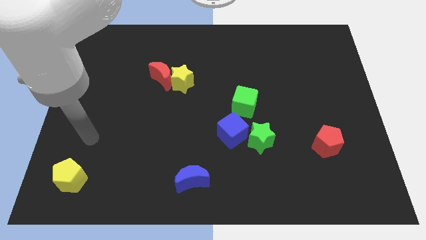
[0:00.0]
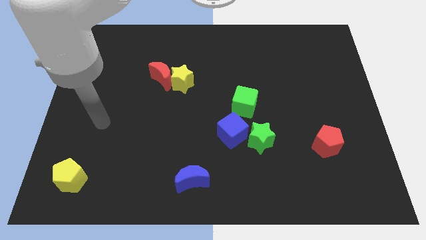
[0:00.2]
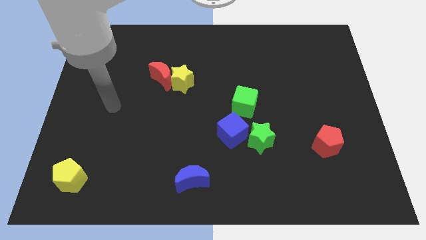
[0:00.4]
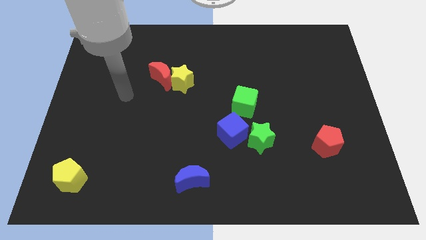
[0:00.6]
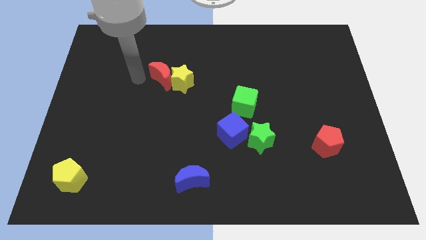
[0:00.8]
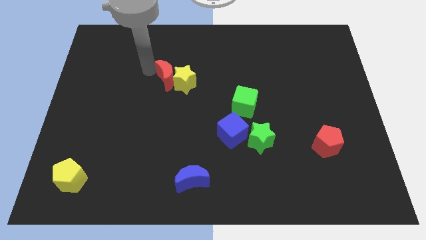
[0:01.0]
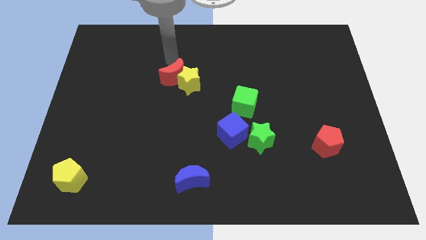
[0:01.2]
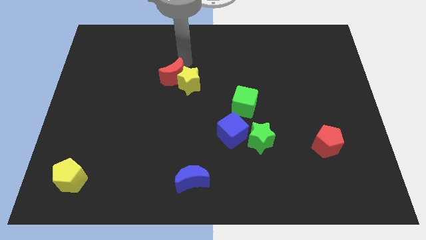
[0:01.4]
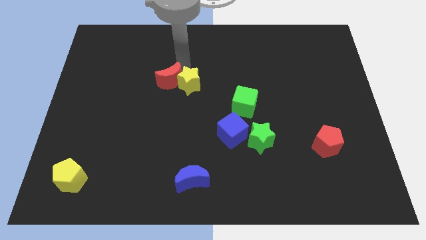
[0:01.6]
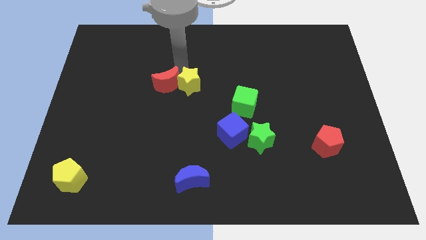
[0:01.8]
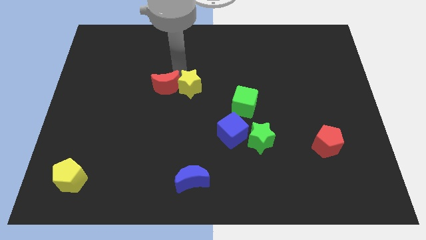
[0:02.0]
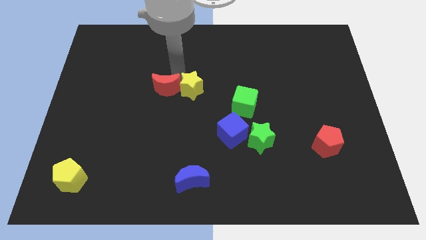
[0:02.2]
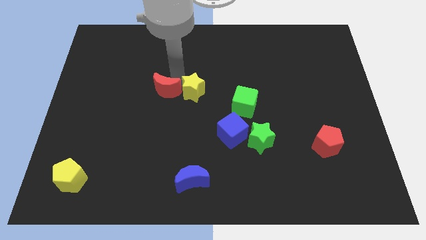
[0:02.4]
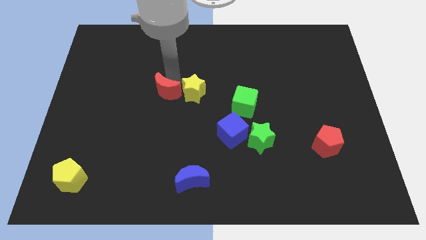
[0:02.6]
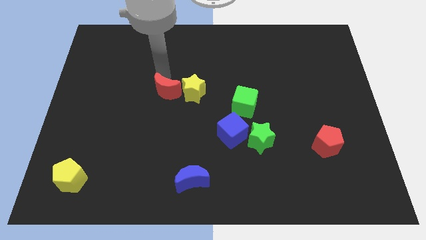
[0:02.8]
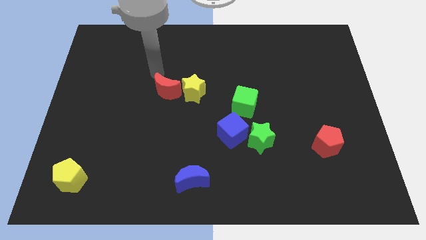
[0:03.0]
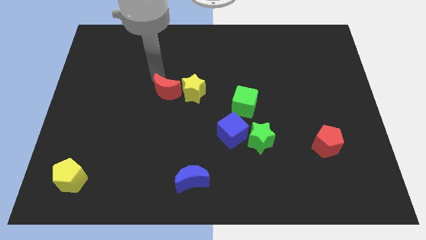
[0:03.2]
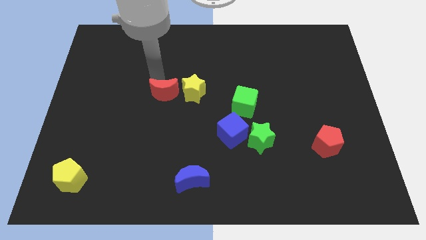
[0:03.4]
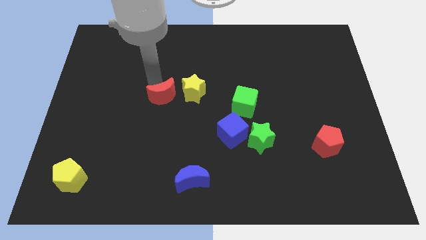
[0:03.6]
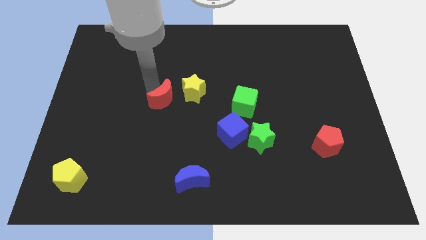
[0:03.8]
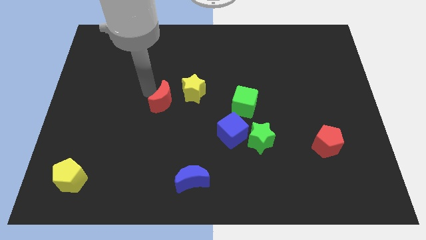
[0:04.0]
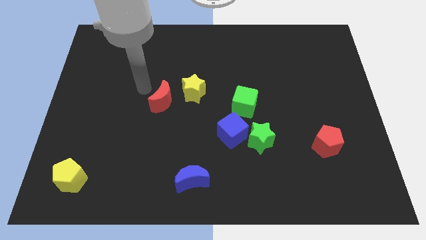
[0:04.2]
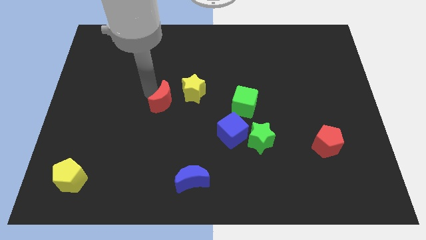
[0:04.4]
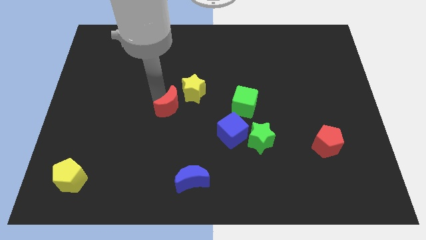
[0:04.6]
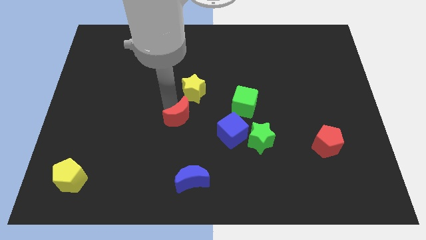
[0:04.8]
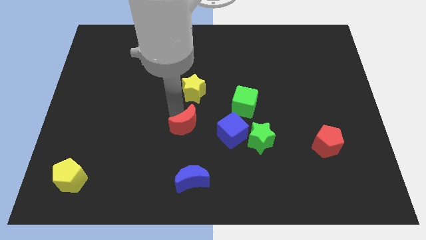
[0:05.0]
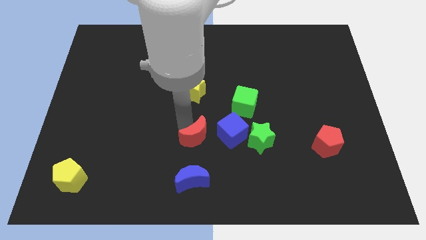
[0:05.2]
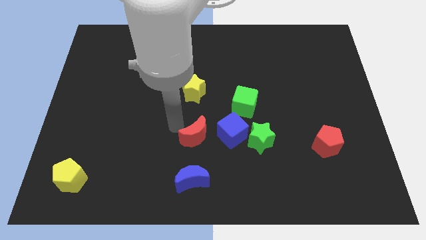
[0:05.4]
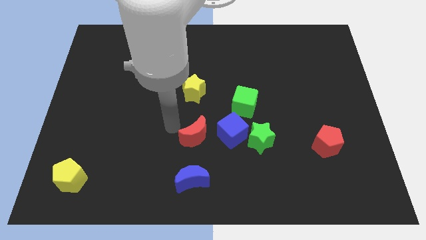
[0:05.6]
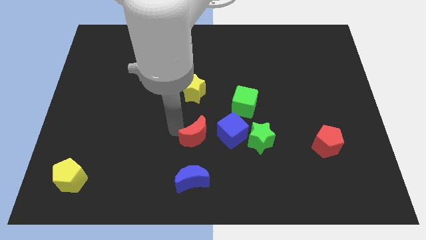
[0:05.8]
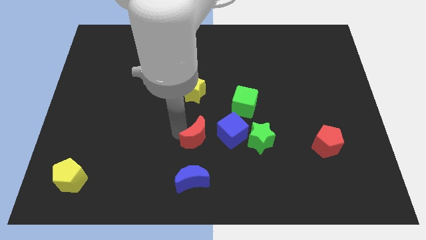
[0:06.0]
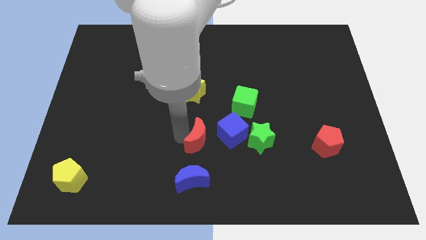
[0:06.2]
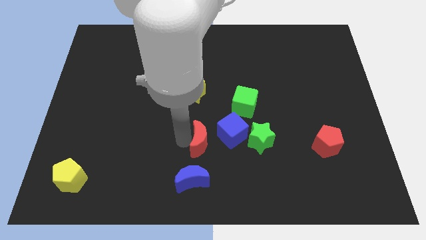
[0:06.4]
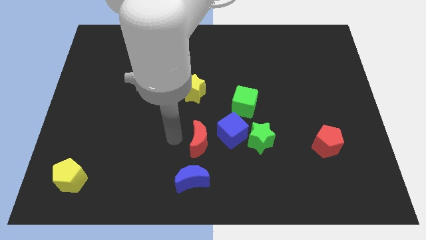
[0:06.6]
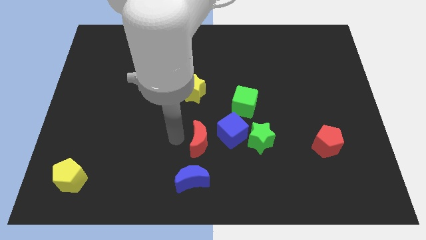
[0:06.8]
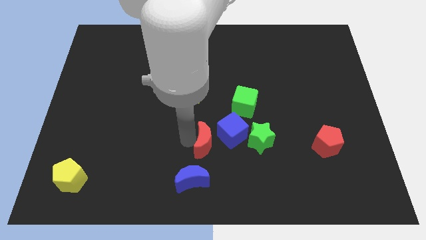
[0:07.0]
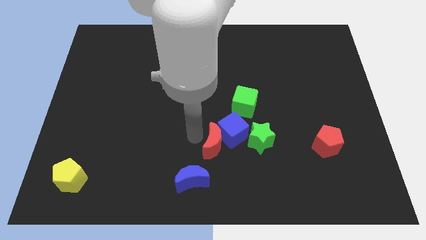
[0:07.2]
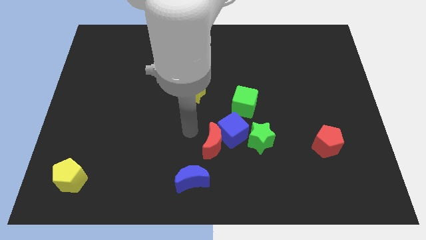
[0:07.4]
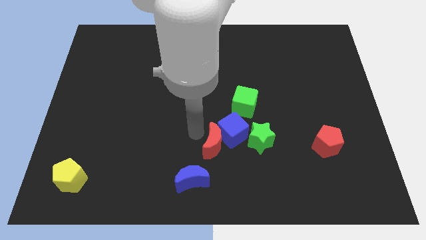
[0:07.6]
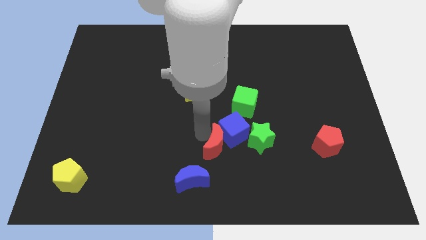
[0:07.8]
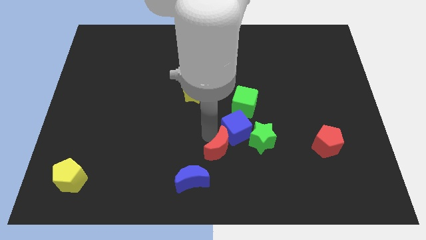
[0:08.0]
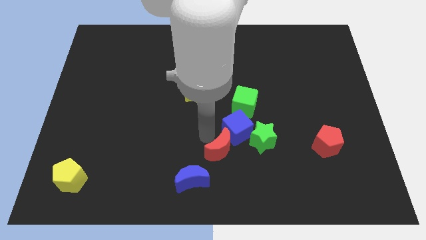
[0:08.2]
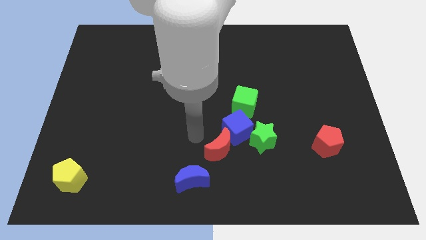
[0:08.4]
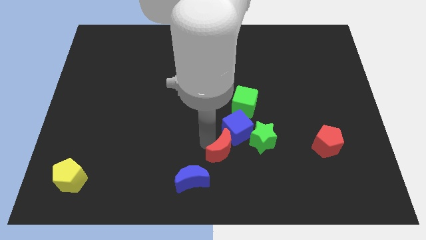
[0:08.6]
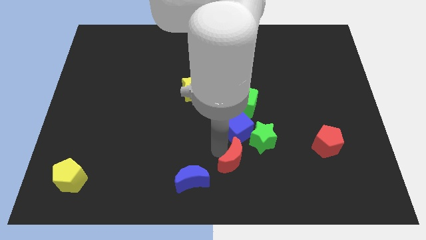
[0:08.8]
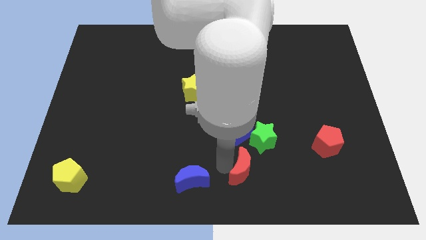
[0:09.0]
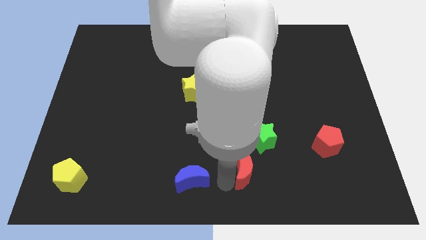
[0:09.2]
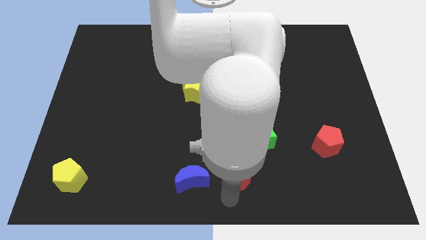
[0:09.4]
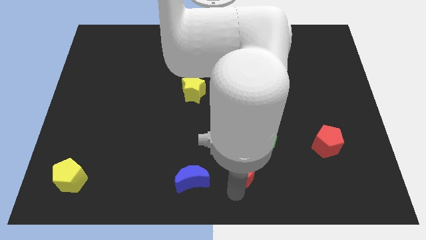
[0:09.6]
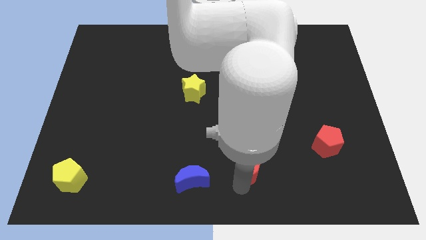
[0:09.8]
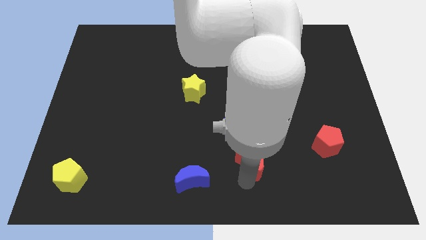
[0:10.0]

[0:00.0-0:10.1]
push the red moon next to the green star

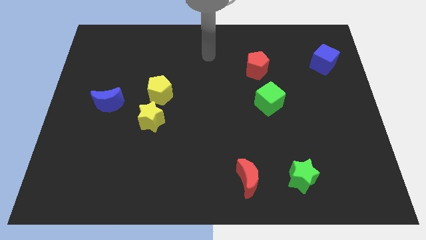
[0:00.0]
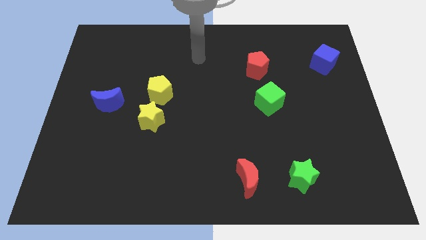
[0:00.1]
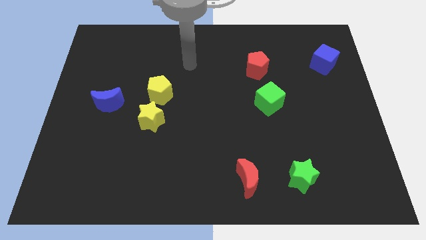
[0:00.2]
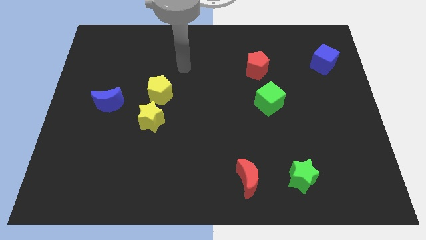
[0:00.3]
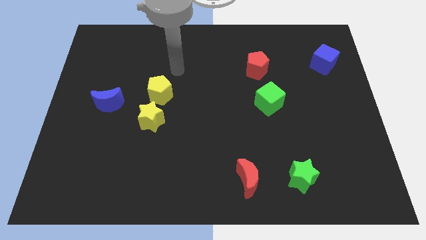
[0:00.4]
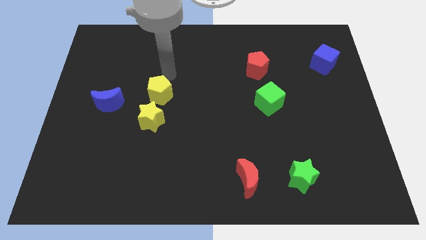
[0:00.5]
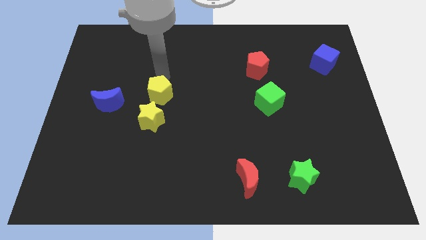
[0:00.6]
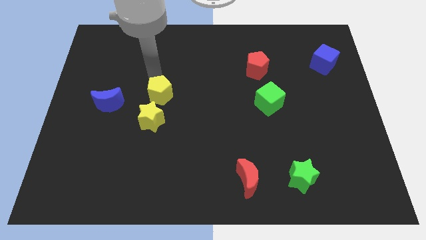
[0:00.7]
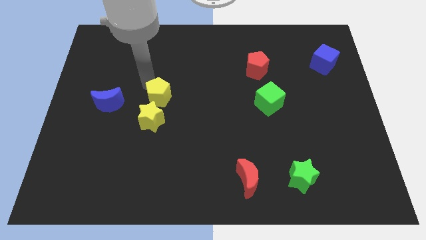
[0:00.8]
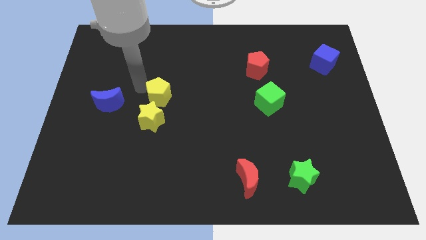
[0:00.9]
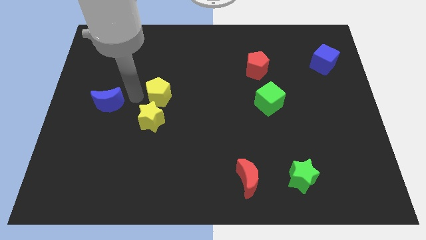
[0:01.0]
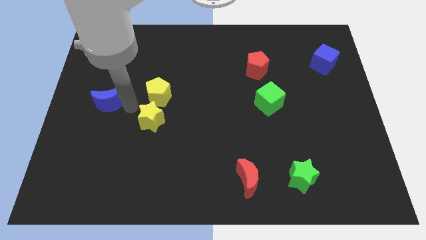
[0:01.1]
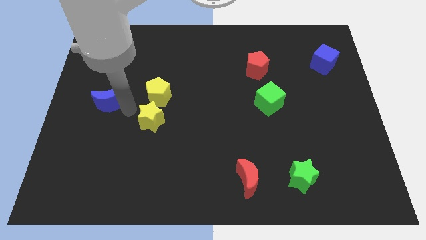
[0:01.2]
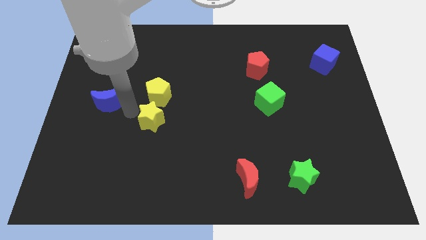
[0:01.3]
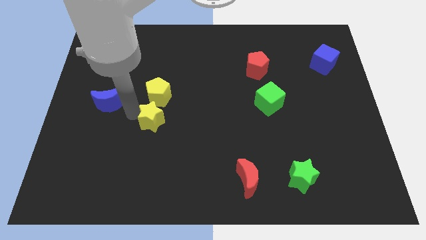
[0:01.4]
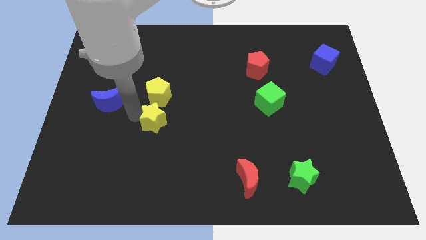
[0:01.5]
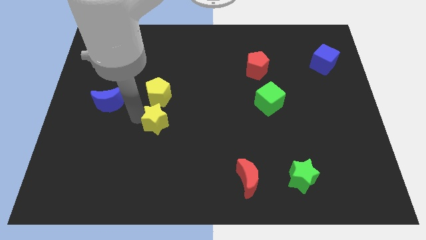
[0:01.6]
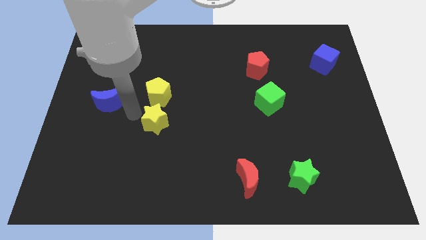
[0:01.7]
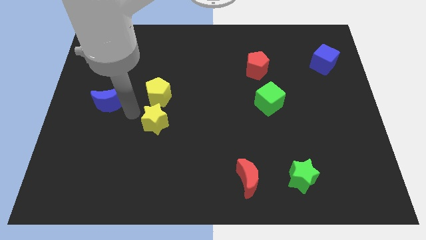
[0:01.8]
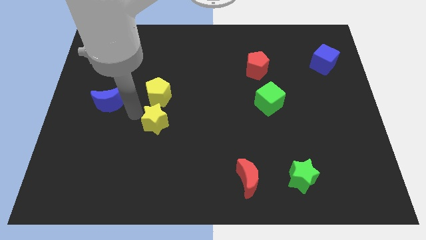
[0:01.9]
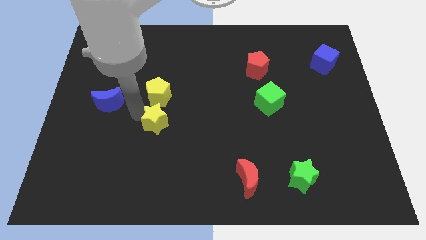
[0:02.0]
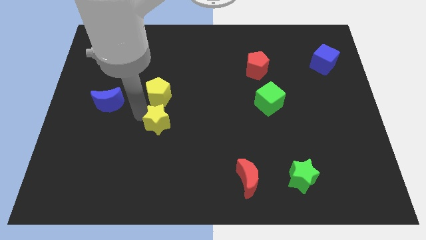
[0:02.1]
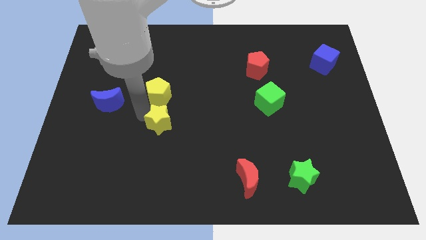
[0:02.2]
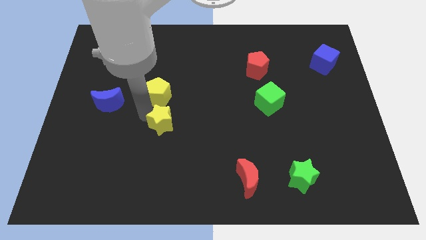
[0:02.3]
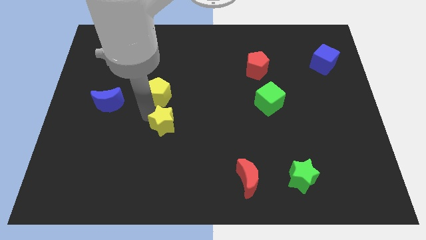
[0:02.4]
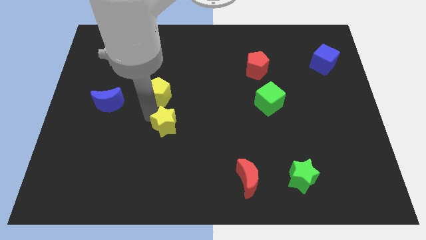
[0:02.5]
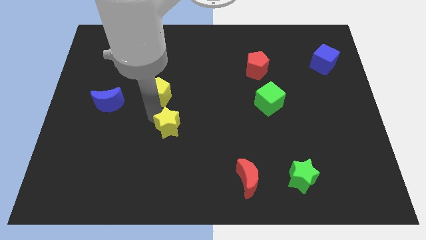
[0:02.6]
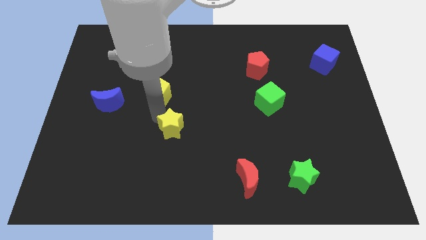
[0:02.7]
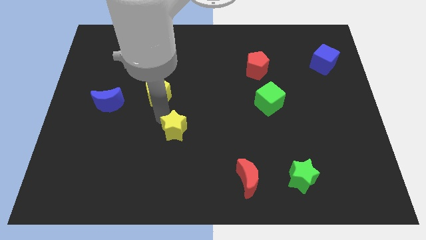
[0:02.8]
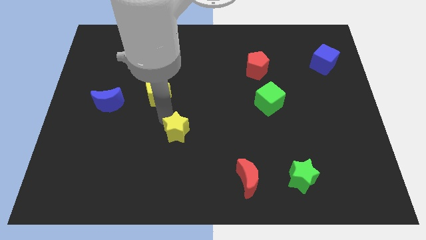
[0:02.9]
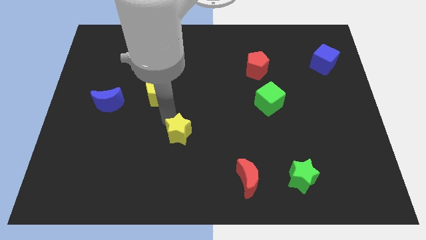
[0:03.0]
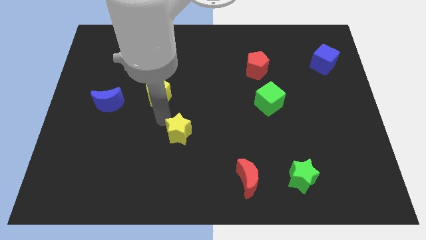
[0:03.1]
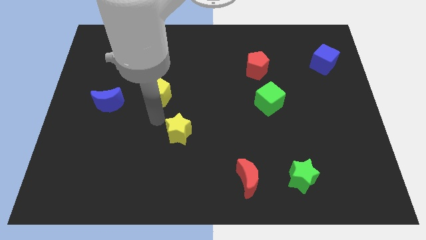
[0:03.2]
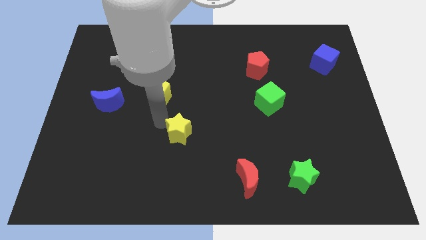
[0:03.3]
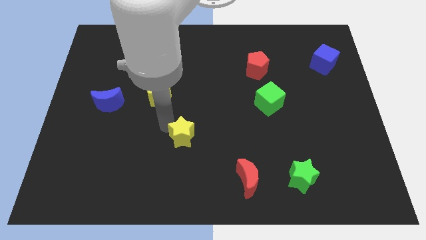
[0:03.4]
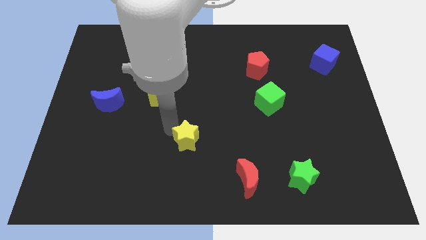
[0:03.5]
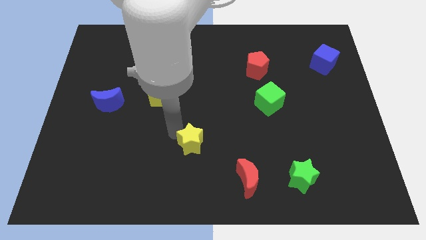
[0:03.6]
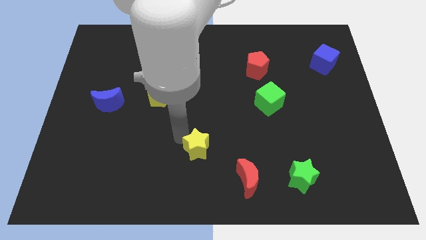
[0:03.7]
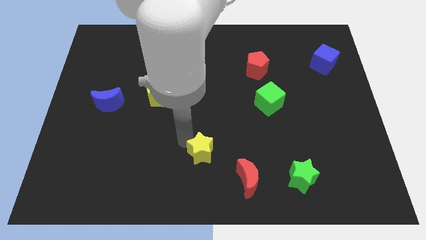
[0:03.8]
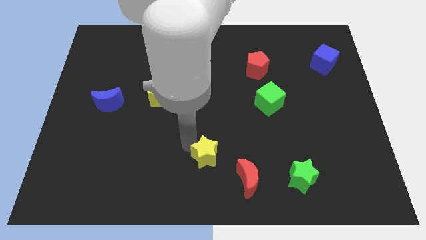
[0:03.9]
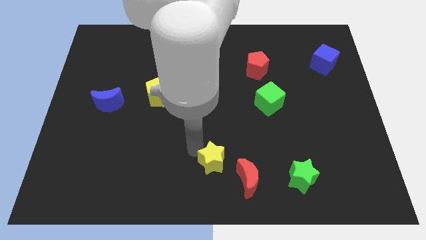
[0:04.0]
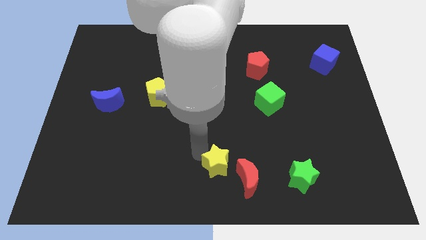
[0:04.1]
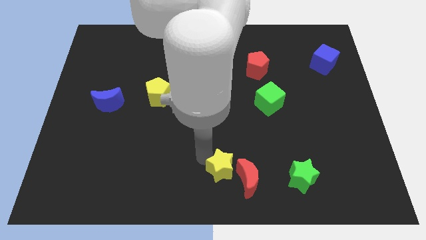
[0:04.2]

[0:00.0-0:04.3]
push the yellow star towards the red moon
